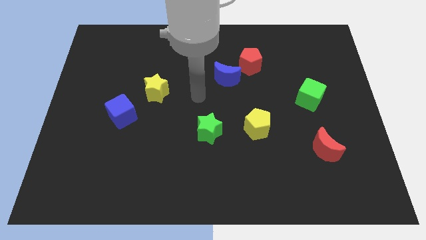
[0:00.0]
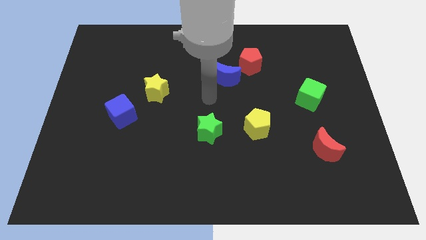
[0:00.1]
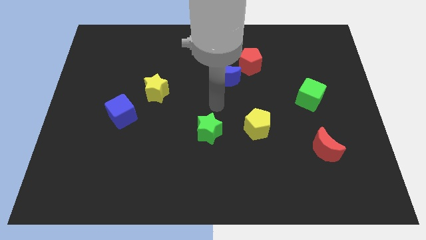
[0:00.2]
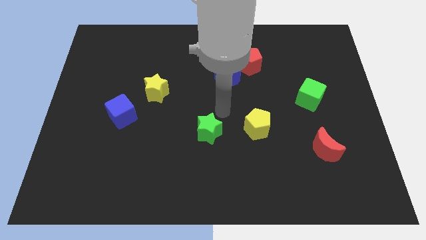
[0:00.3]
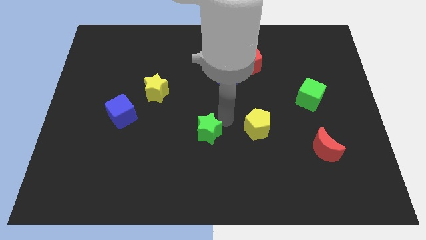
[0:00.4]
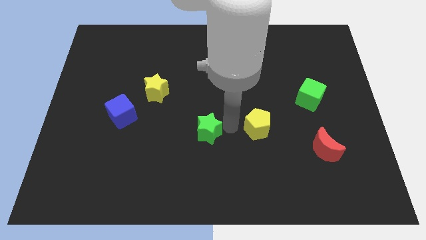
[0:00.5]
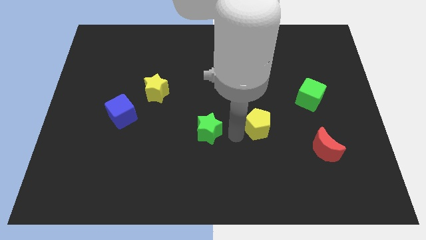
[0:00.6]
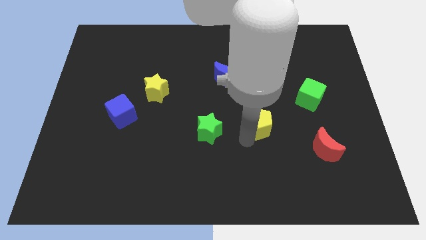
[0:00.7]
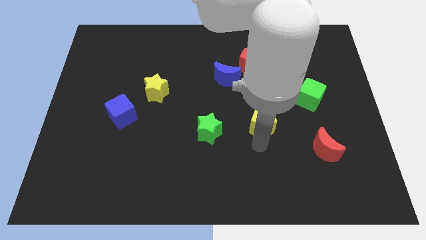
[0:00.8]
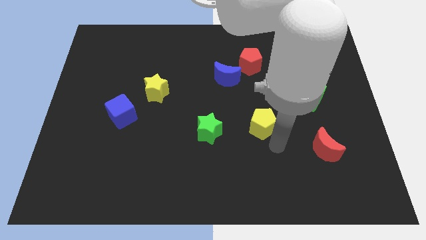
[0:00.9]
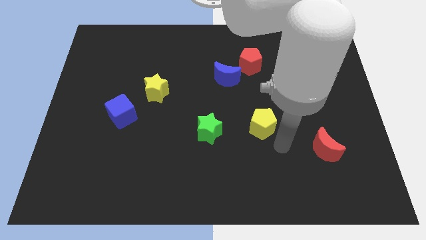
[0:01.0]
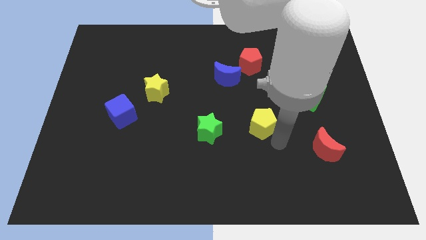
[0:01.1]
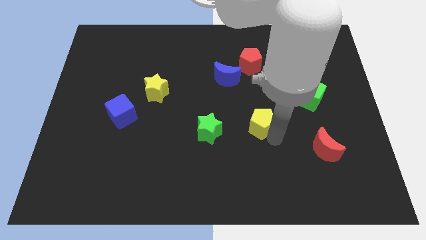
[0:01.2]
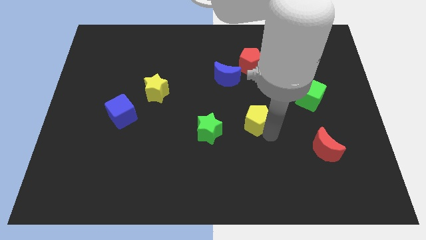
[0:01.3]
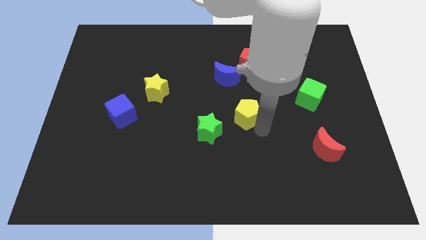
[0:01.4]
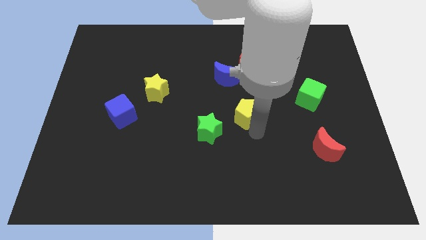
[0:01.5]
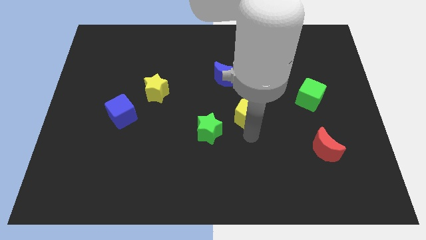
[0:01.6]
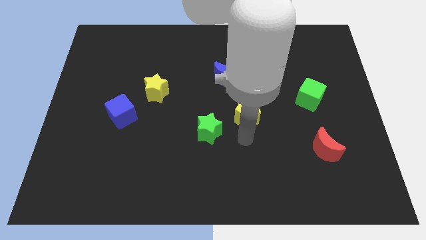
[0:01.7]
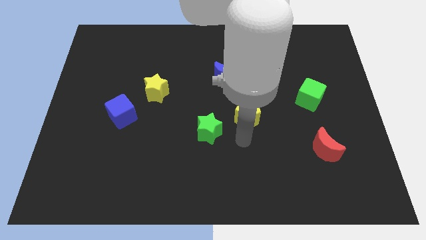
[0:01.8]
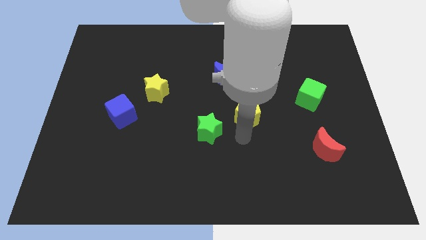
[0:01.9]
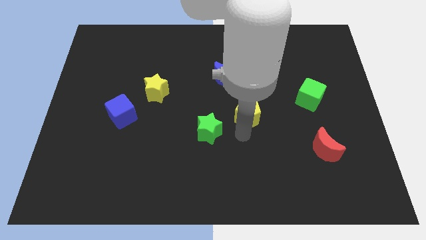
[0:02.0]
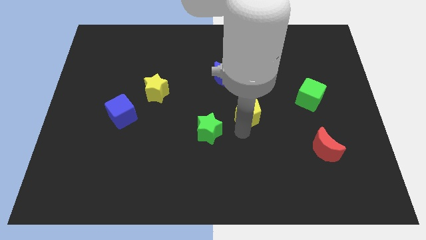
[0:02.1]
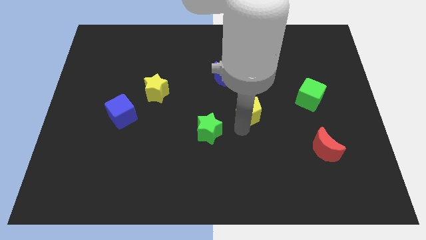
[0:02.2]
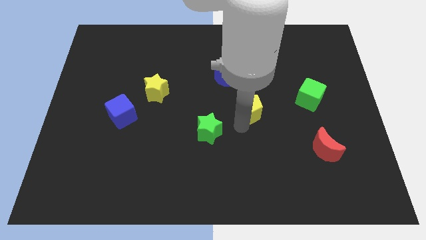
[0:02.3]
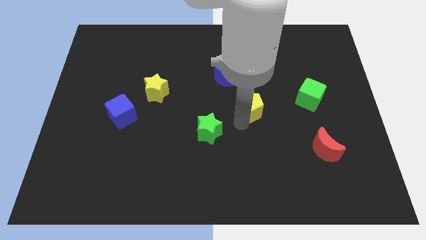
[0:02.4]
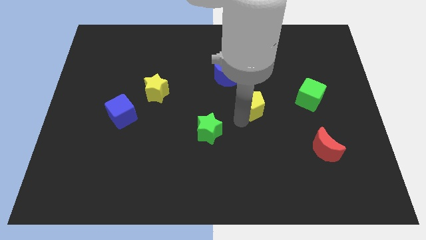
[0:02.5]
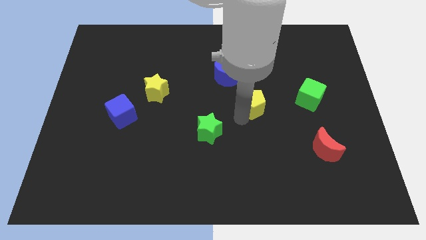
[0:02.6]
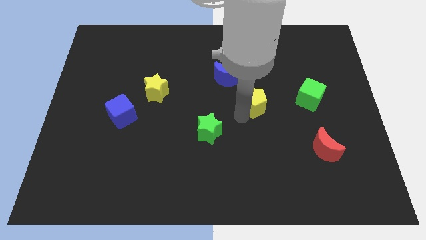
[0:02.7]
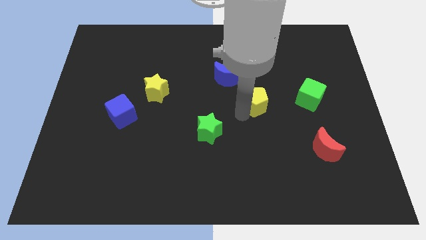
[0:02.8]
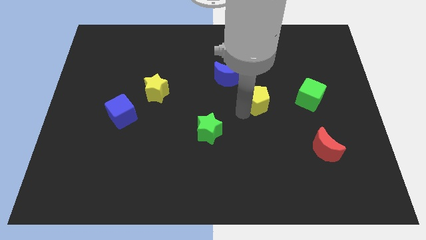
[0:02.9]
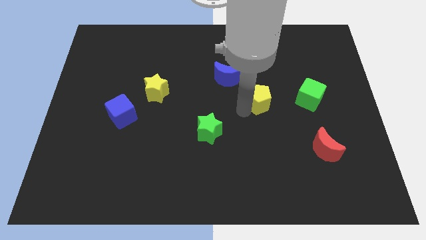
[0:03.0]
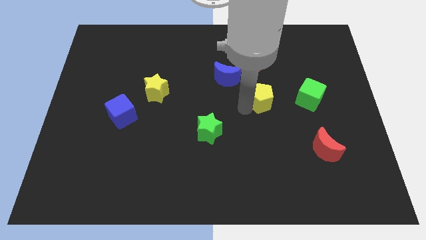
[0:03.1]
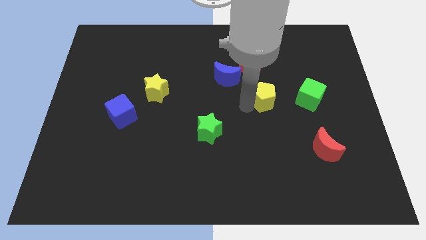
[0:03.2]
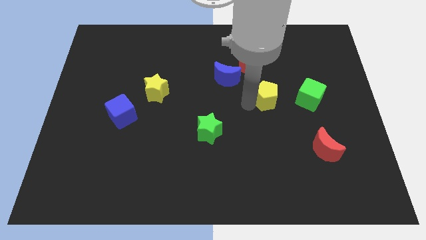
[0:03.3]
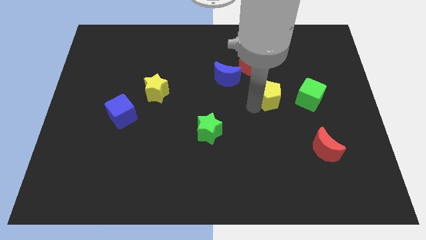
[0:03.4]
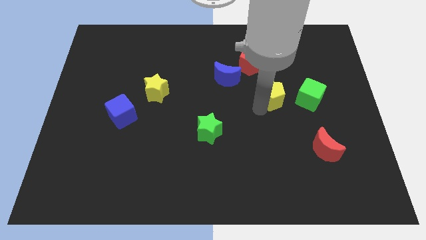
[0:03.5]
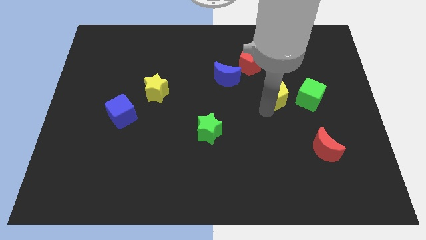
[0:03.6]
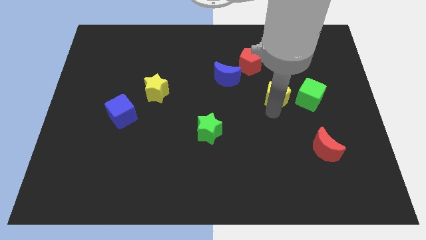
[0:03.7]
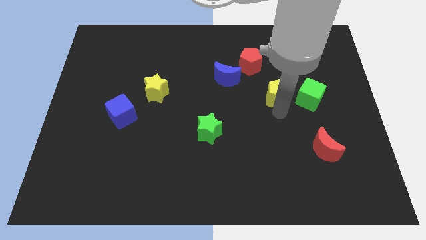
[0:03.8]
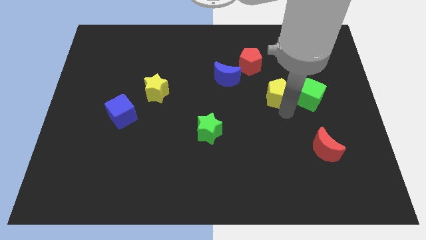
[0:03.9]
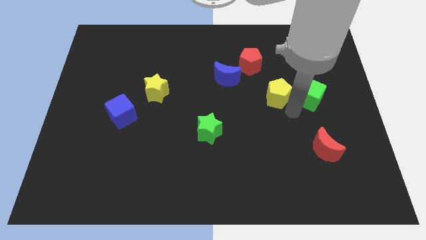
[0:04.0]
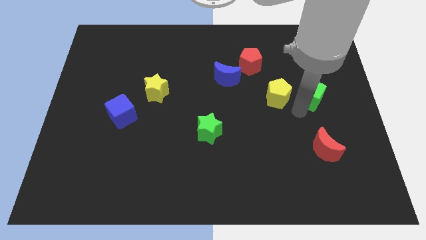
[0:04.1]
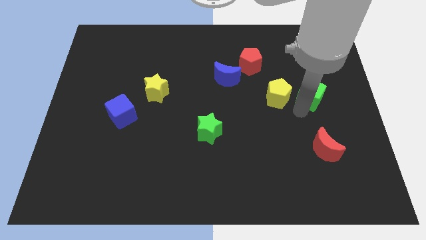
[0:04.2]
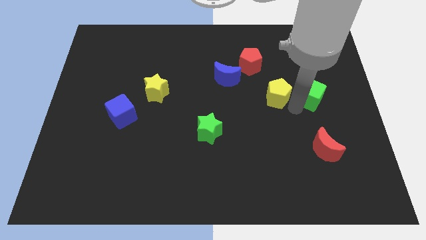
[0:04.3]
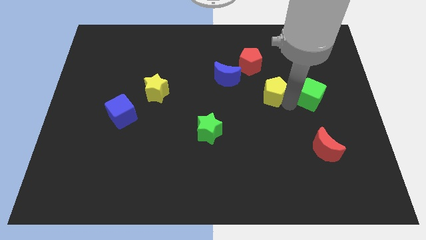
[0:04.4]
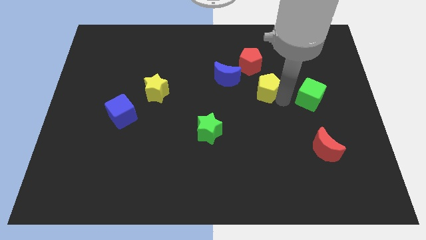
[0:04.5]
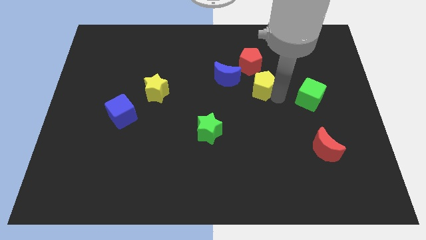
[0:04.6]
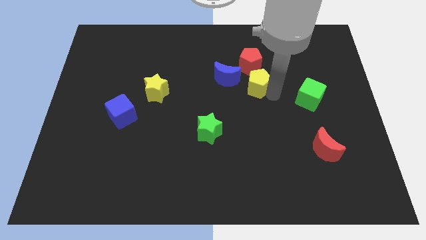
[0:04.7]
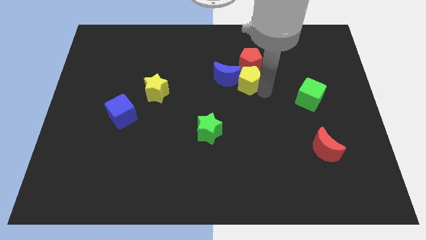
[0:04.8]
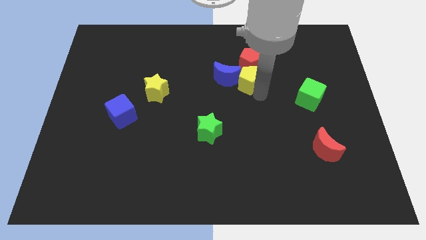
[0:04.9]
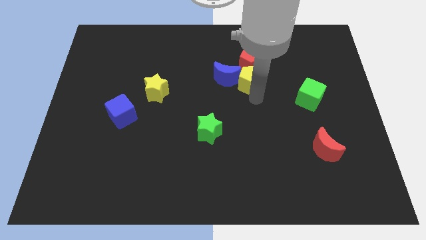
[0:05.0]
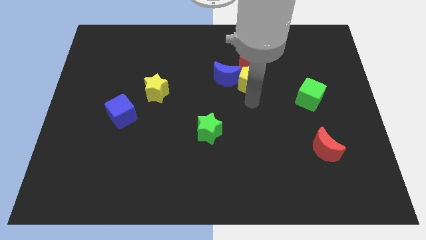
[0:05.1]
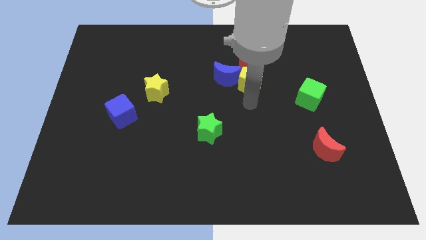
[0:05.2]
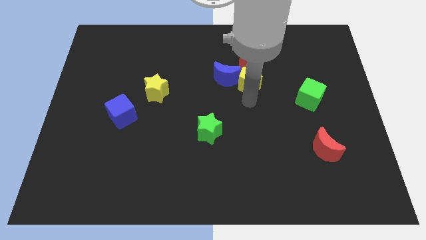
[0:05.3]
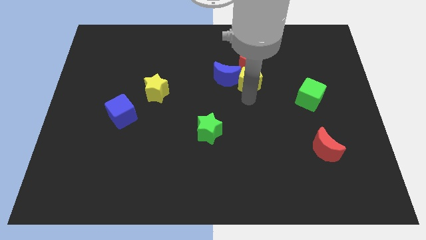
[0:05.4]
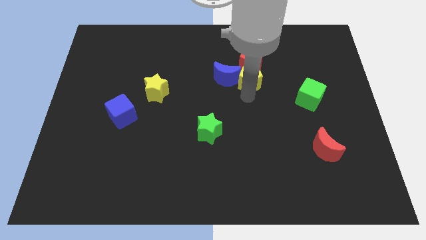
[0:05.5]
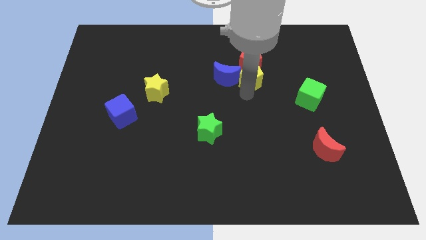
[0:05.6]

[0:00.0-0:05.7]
put the yellow pentagon close to the red pentagon

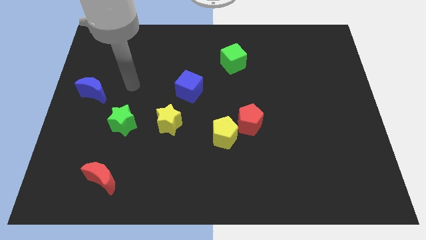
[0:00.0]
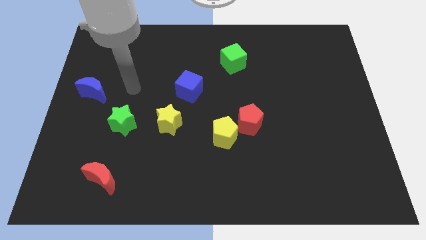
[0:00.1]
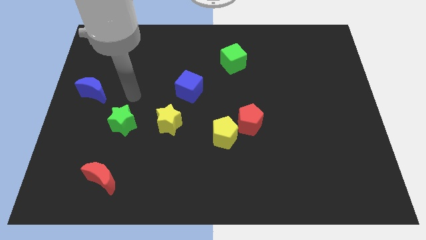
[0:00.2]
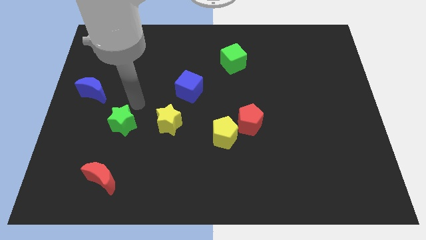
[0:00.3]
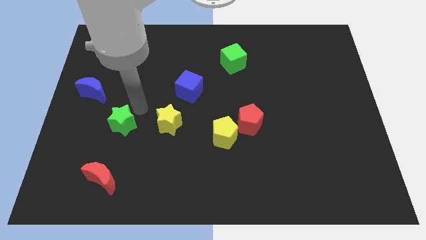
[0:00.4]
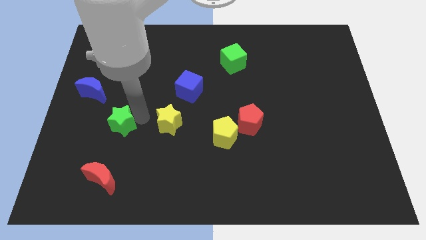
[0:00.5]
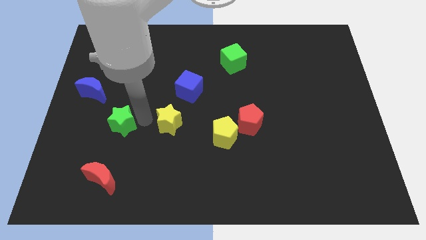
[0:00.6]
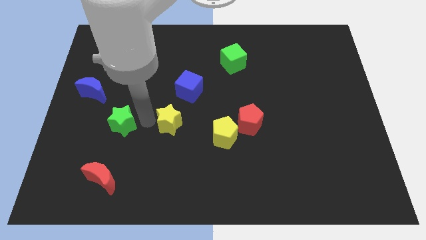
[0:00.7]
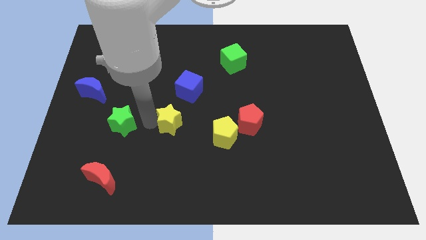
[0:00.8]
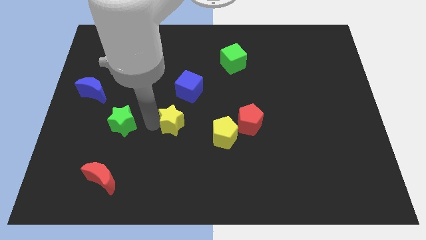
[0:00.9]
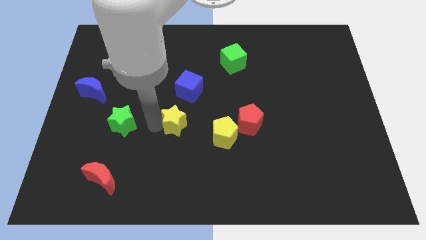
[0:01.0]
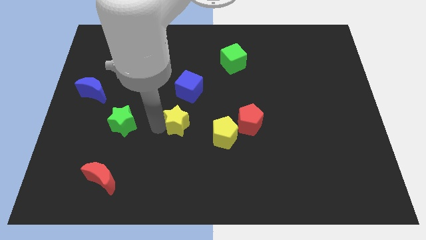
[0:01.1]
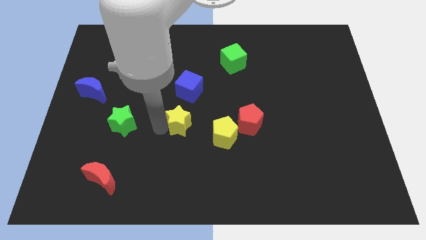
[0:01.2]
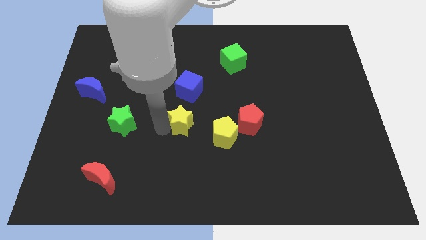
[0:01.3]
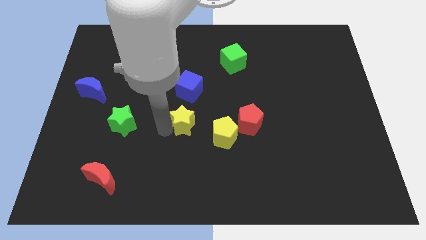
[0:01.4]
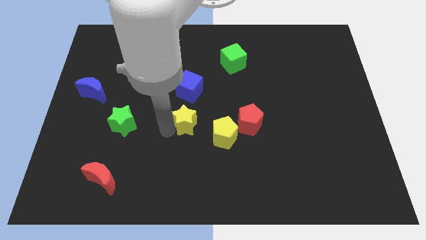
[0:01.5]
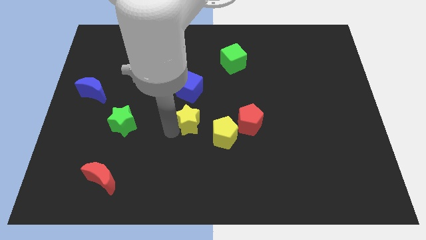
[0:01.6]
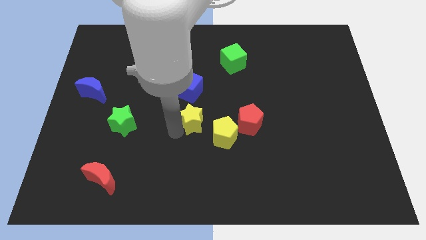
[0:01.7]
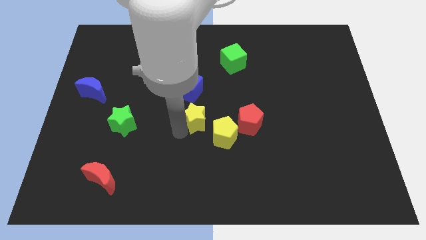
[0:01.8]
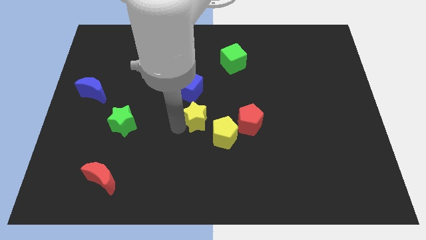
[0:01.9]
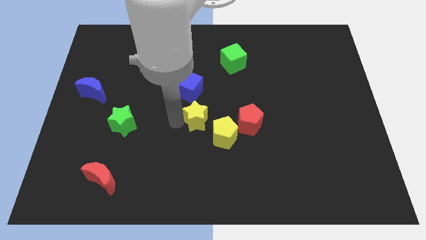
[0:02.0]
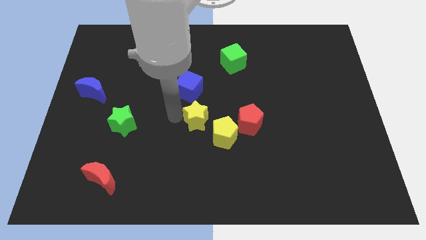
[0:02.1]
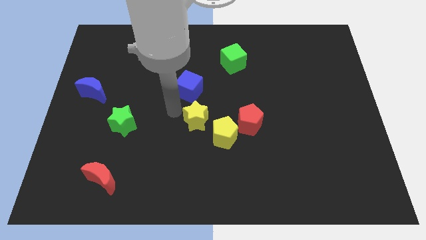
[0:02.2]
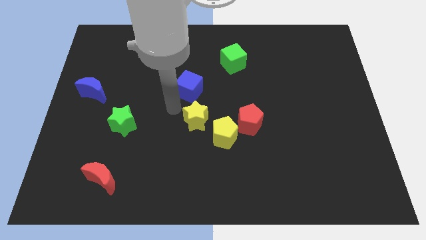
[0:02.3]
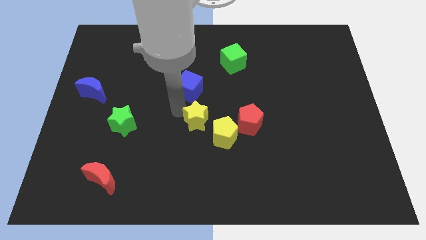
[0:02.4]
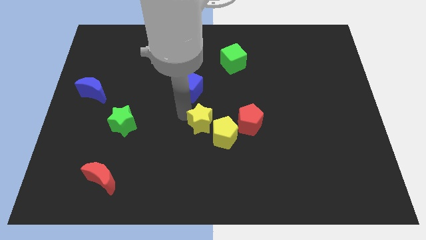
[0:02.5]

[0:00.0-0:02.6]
move the yellow star to the yellow pentagon
